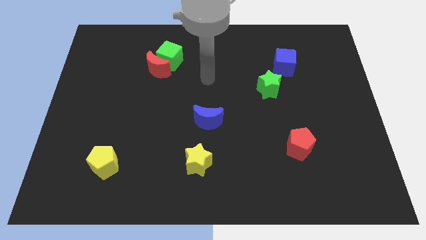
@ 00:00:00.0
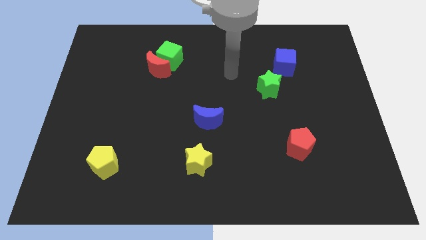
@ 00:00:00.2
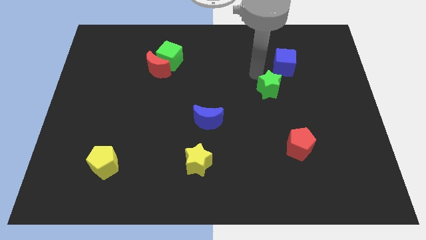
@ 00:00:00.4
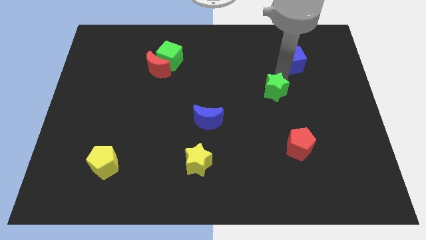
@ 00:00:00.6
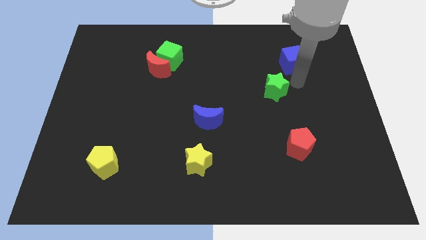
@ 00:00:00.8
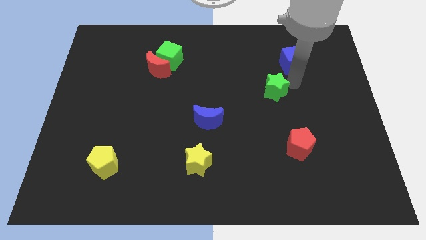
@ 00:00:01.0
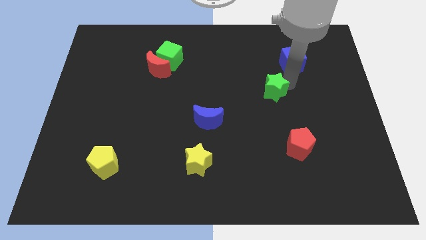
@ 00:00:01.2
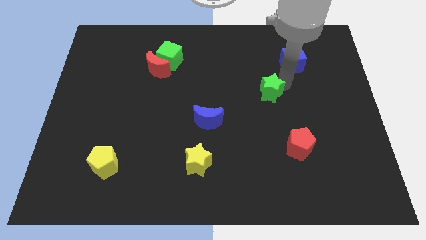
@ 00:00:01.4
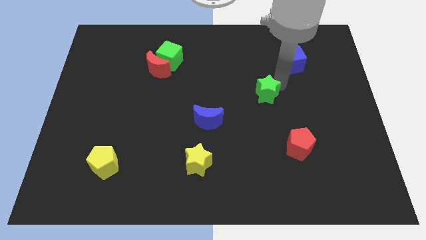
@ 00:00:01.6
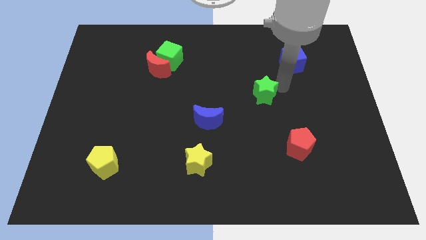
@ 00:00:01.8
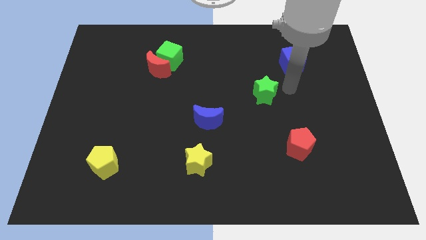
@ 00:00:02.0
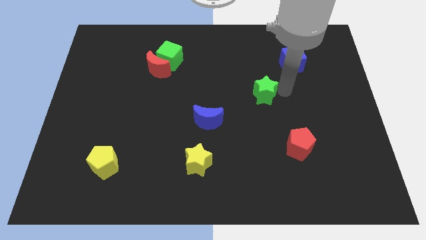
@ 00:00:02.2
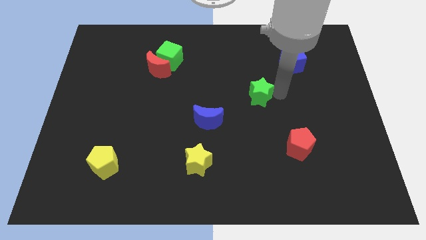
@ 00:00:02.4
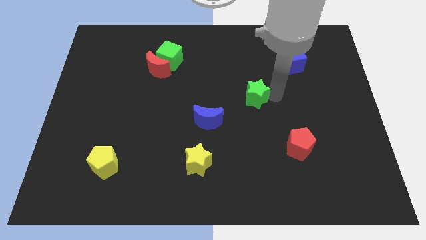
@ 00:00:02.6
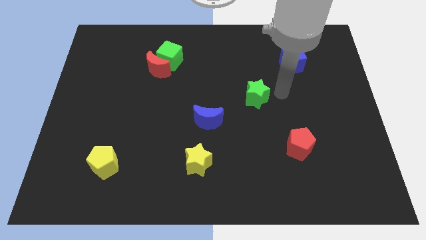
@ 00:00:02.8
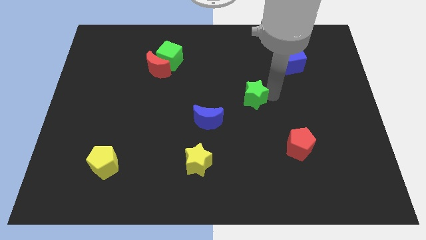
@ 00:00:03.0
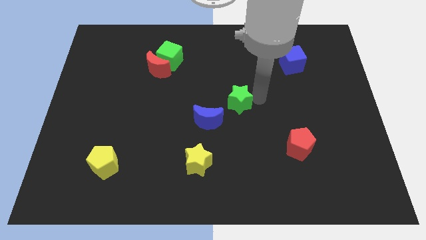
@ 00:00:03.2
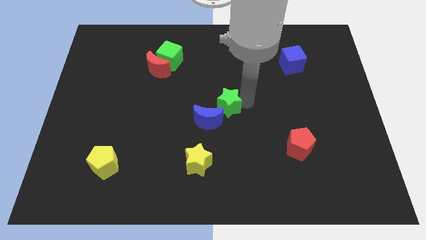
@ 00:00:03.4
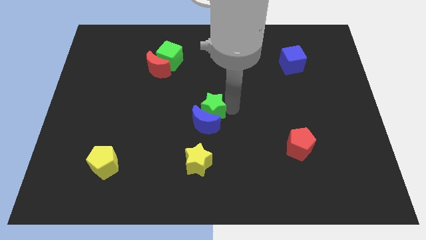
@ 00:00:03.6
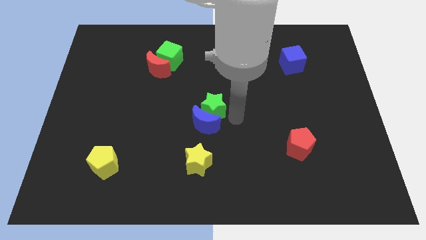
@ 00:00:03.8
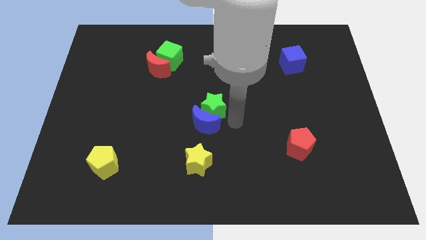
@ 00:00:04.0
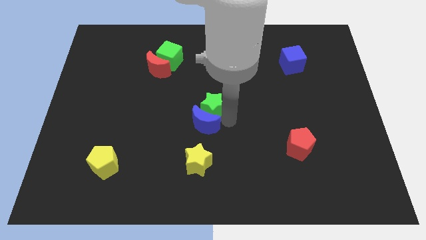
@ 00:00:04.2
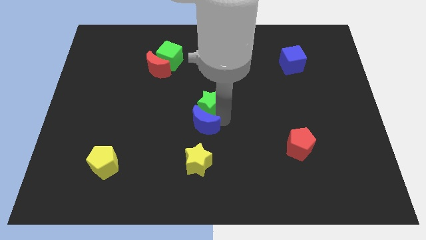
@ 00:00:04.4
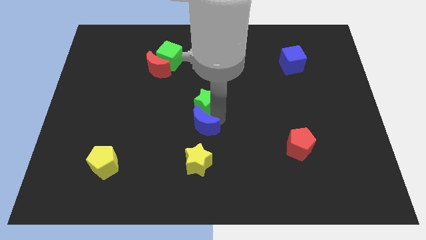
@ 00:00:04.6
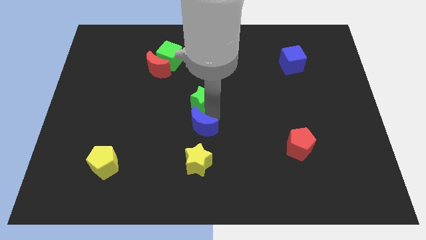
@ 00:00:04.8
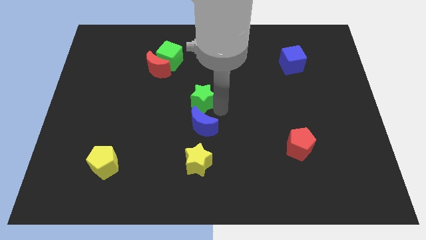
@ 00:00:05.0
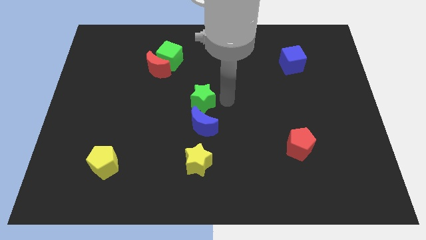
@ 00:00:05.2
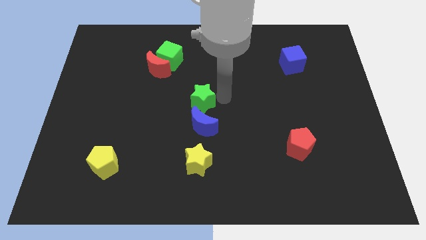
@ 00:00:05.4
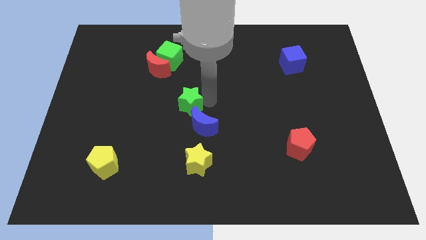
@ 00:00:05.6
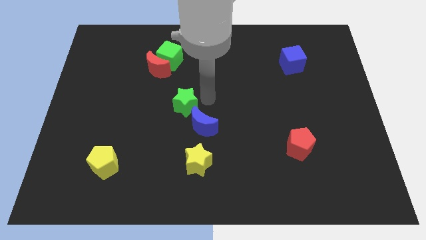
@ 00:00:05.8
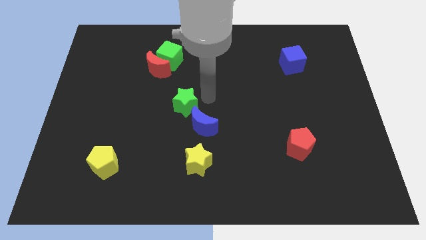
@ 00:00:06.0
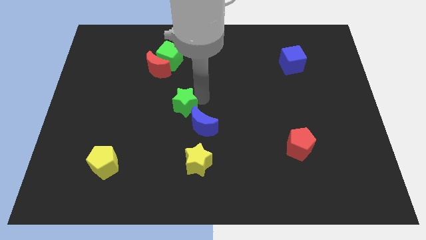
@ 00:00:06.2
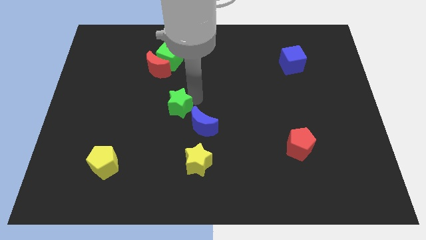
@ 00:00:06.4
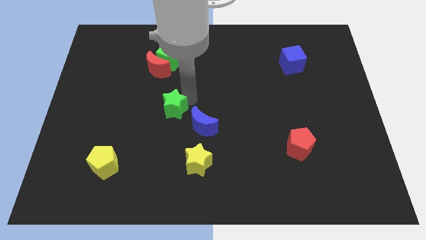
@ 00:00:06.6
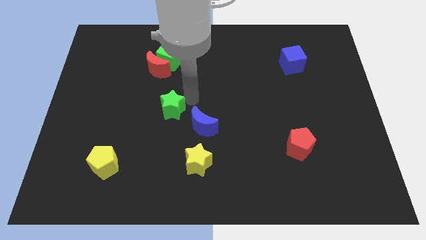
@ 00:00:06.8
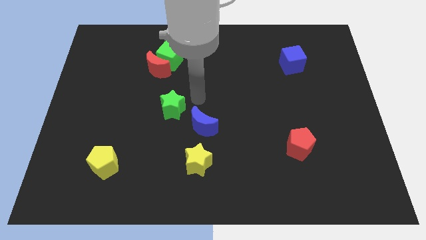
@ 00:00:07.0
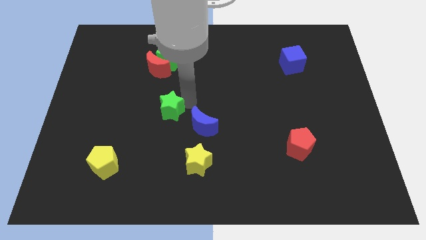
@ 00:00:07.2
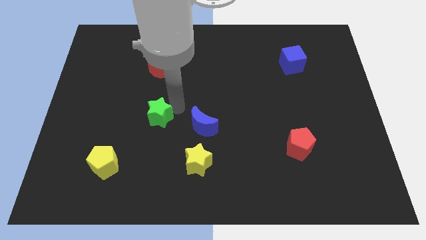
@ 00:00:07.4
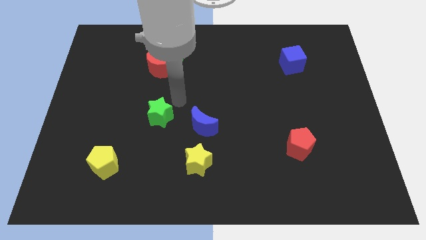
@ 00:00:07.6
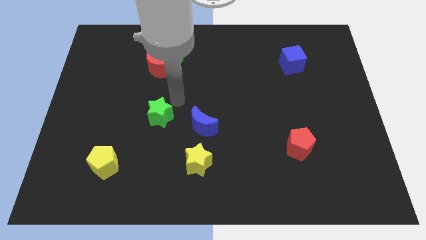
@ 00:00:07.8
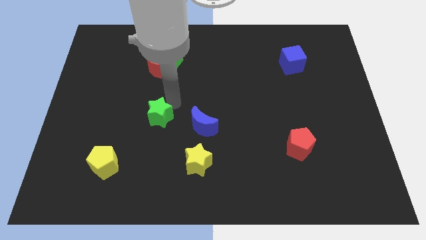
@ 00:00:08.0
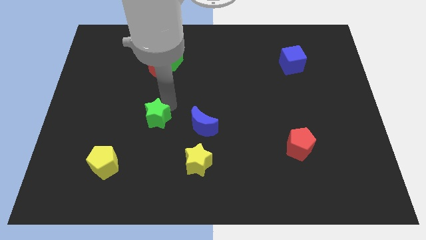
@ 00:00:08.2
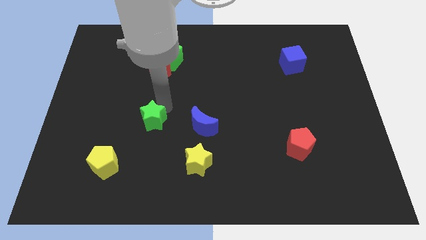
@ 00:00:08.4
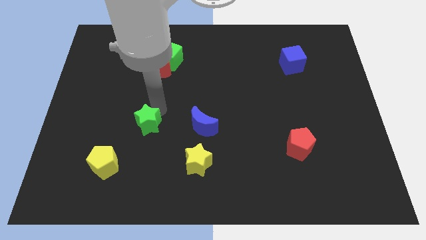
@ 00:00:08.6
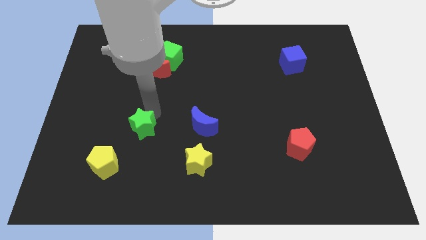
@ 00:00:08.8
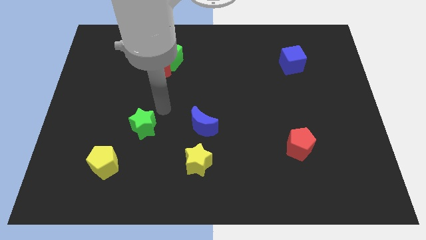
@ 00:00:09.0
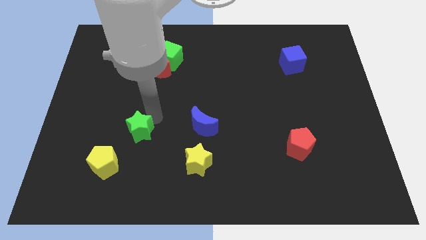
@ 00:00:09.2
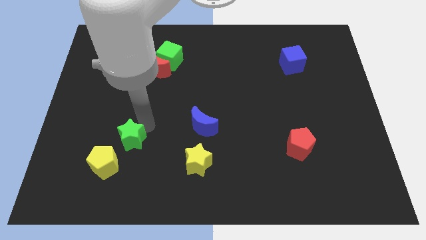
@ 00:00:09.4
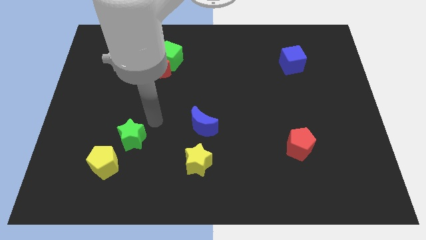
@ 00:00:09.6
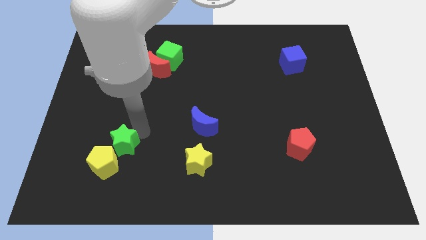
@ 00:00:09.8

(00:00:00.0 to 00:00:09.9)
put the green star close to the yellow pentagon

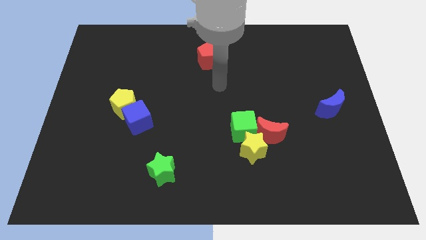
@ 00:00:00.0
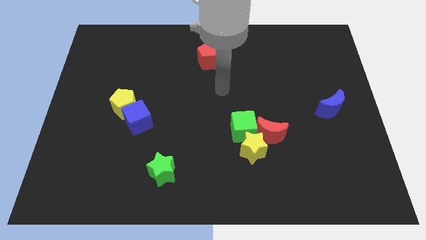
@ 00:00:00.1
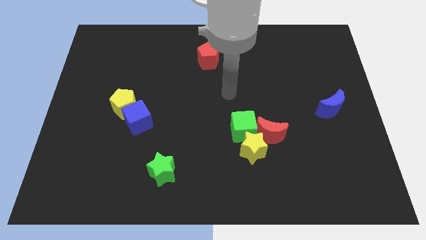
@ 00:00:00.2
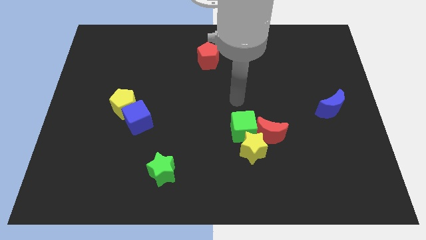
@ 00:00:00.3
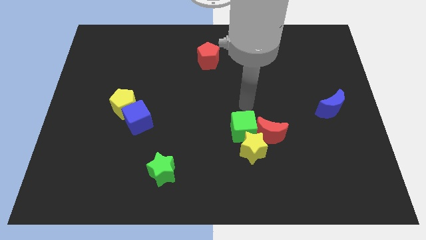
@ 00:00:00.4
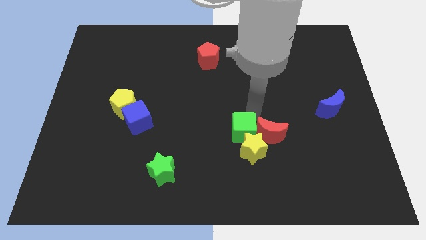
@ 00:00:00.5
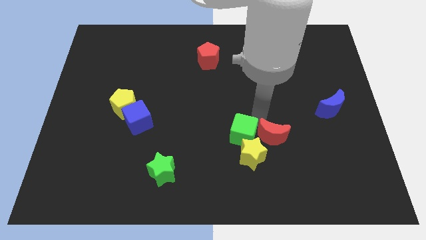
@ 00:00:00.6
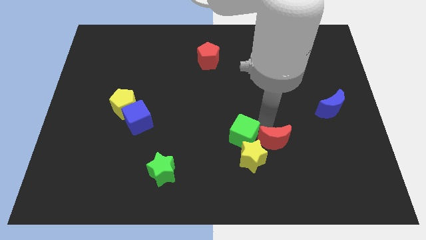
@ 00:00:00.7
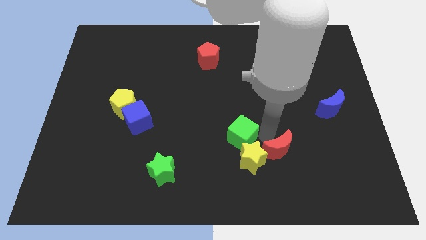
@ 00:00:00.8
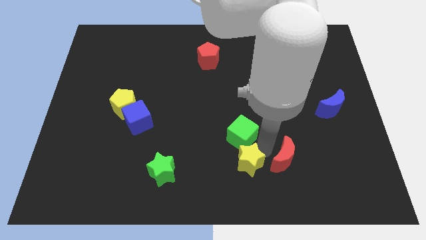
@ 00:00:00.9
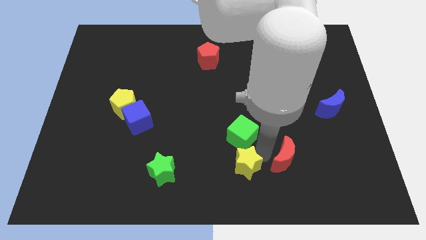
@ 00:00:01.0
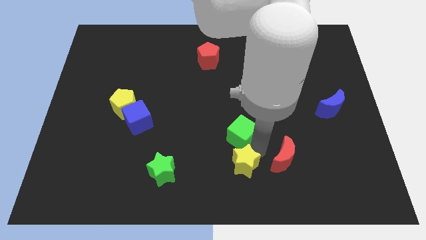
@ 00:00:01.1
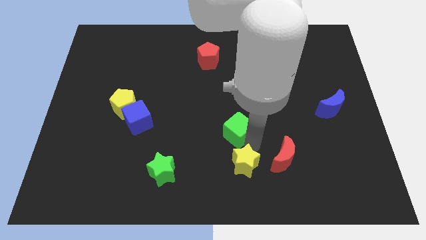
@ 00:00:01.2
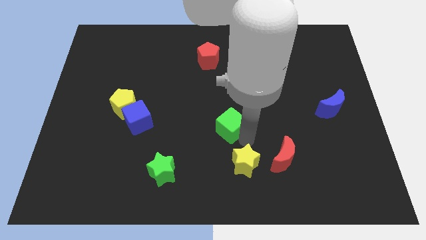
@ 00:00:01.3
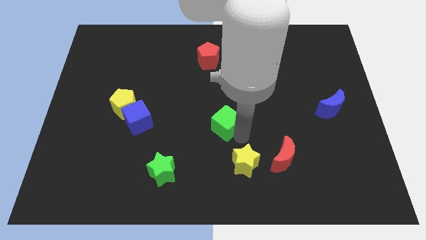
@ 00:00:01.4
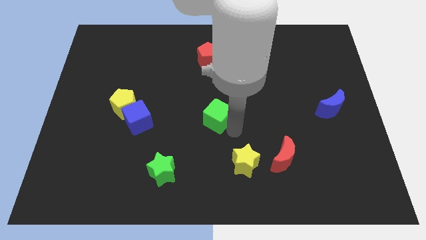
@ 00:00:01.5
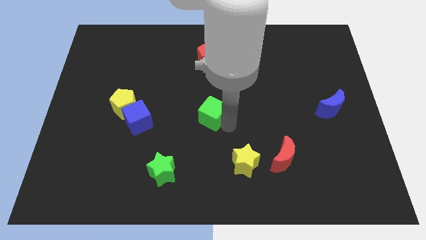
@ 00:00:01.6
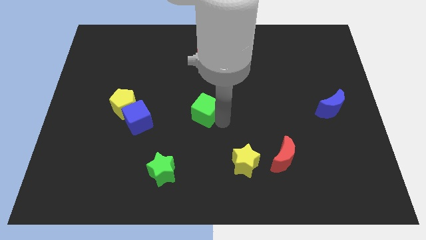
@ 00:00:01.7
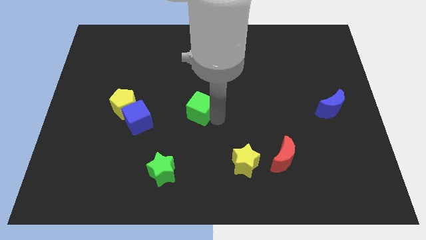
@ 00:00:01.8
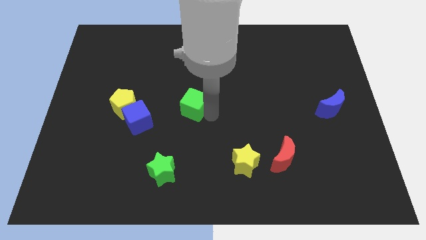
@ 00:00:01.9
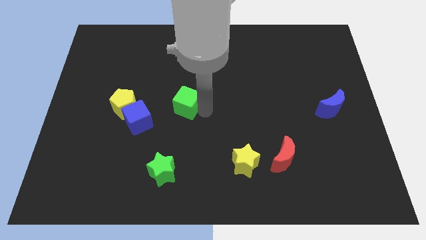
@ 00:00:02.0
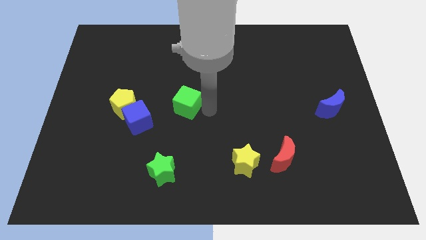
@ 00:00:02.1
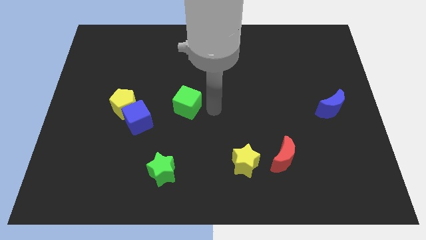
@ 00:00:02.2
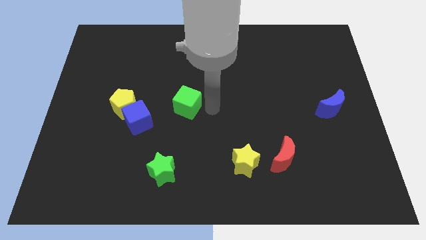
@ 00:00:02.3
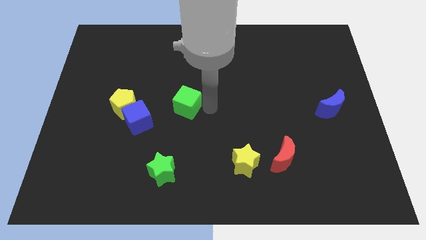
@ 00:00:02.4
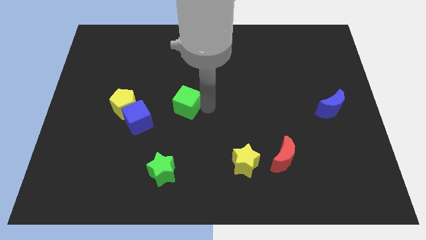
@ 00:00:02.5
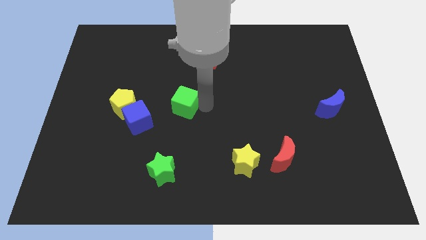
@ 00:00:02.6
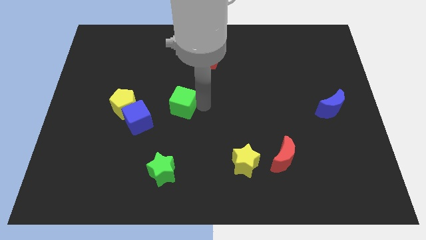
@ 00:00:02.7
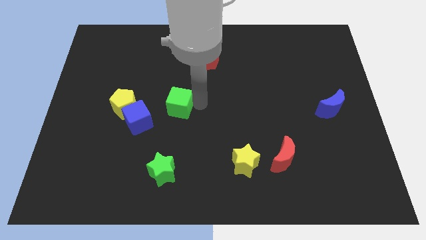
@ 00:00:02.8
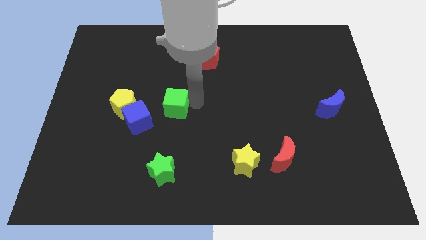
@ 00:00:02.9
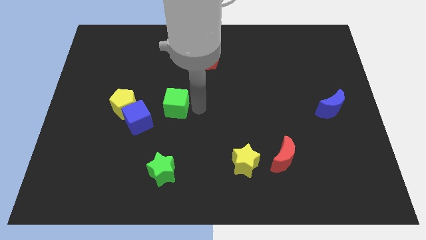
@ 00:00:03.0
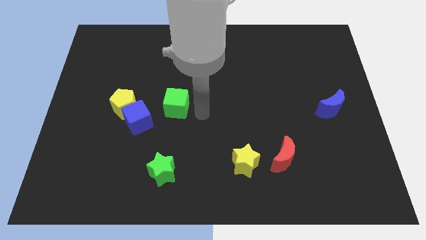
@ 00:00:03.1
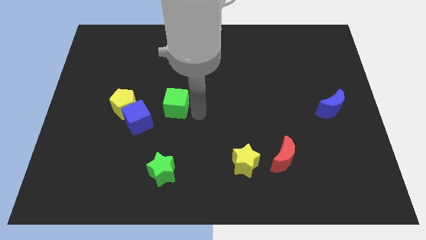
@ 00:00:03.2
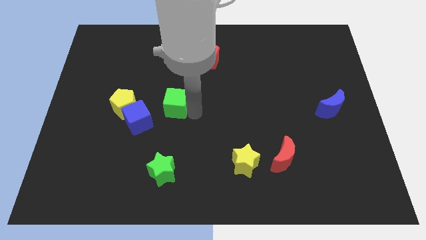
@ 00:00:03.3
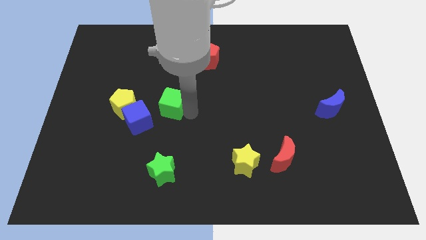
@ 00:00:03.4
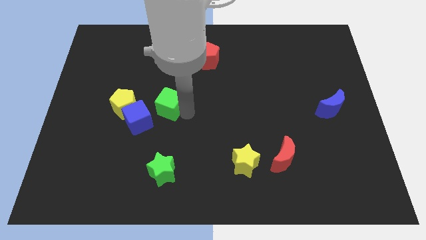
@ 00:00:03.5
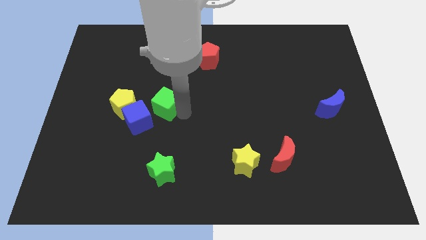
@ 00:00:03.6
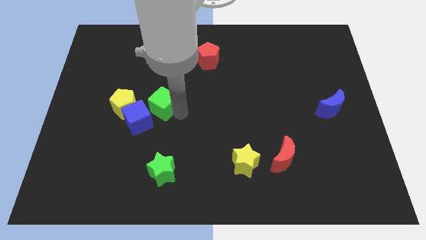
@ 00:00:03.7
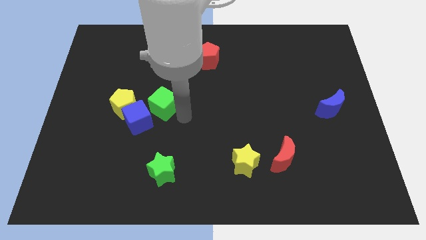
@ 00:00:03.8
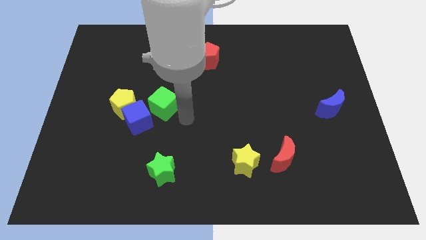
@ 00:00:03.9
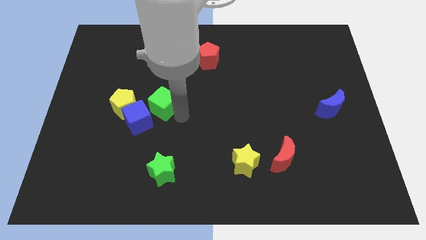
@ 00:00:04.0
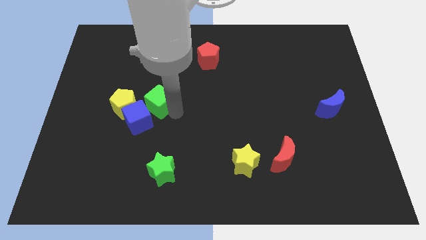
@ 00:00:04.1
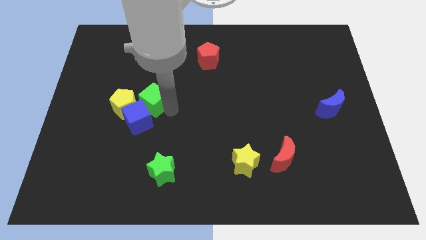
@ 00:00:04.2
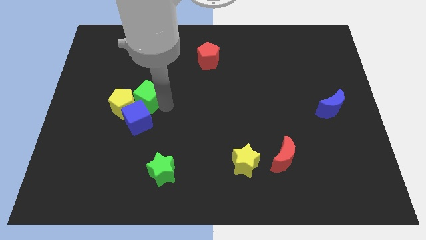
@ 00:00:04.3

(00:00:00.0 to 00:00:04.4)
put the green cube close to the yellow pentagon
